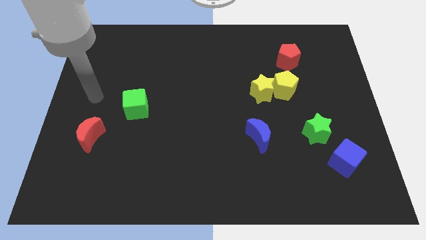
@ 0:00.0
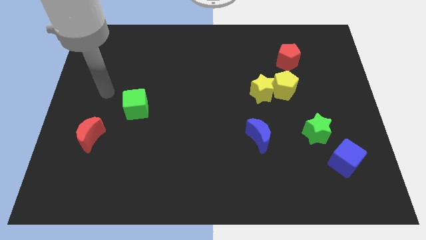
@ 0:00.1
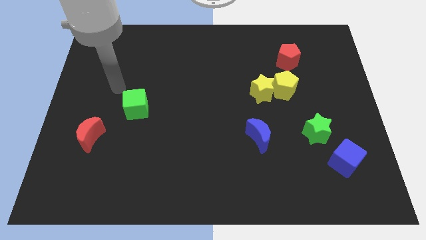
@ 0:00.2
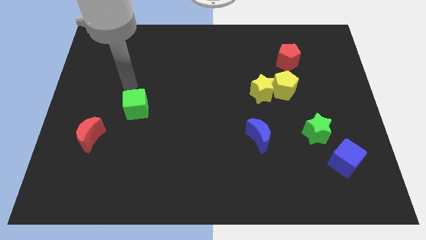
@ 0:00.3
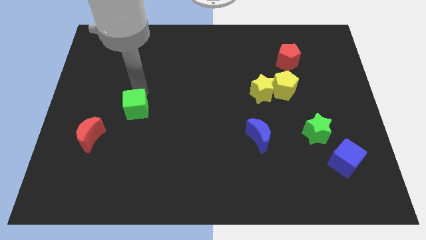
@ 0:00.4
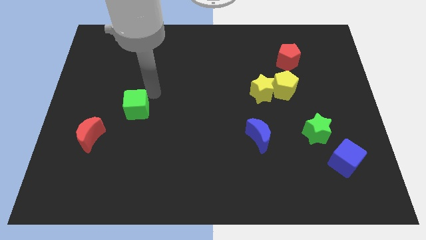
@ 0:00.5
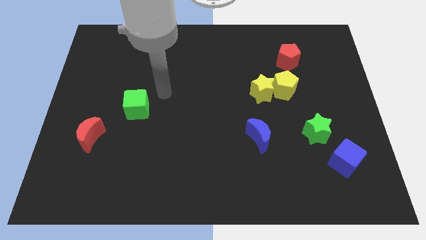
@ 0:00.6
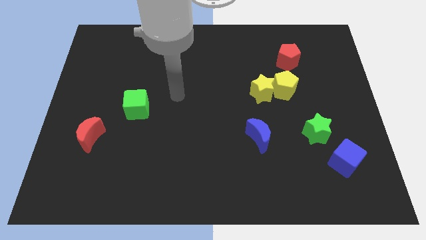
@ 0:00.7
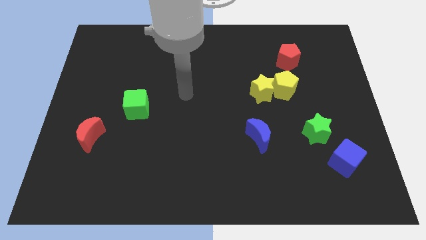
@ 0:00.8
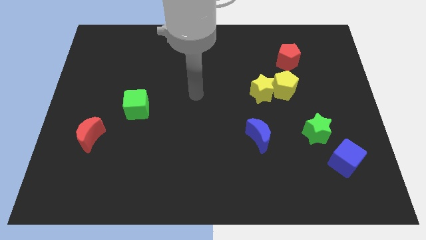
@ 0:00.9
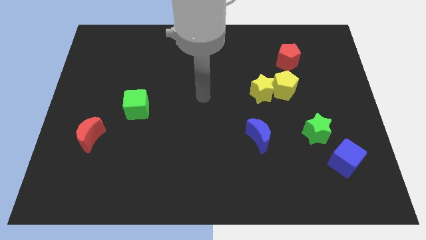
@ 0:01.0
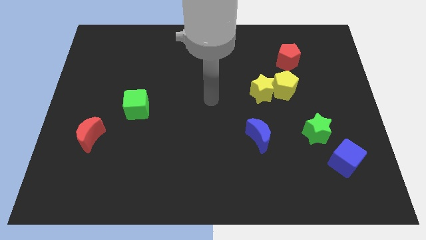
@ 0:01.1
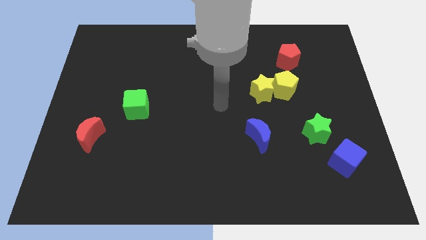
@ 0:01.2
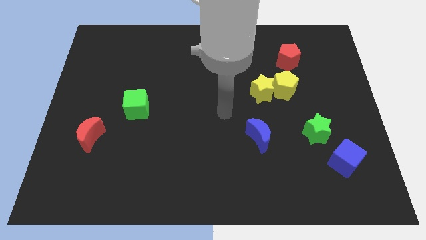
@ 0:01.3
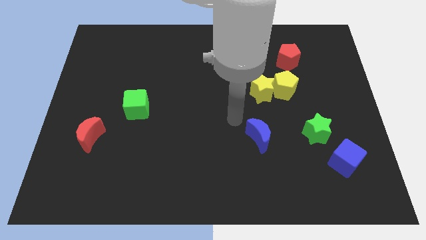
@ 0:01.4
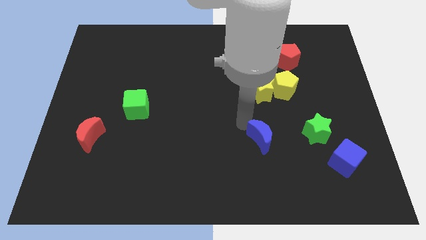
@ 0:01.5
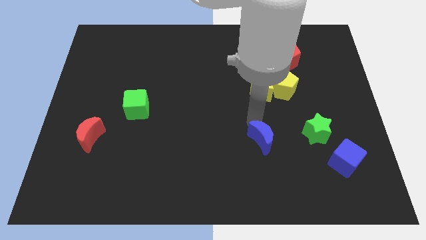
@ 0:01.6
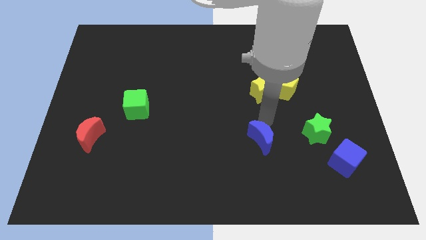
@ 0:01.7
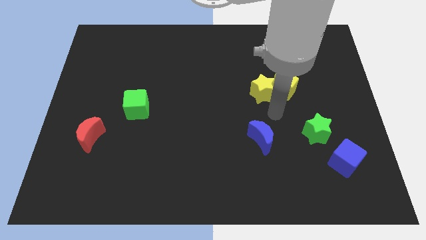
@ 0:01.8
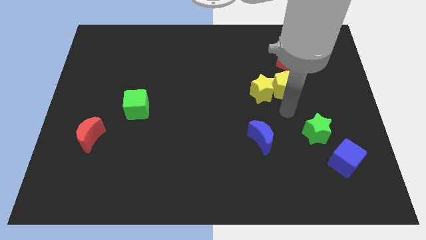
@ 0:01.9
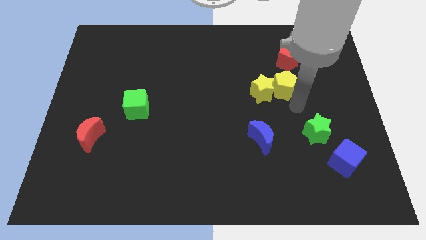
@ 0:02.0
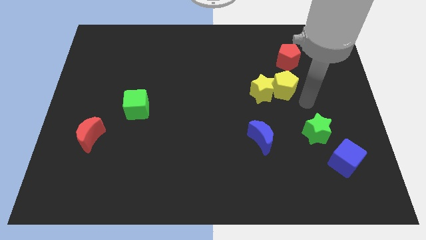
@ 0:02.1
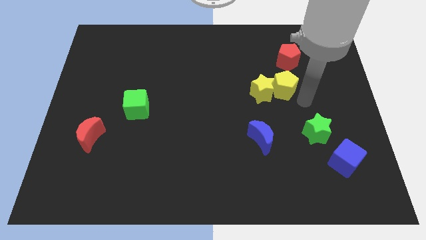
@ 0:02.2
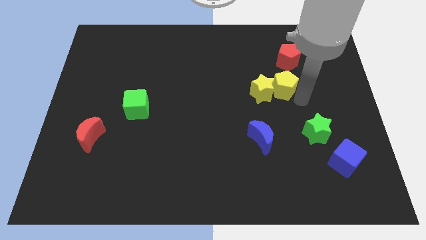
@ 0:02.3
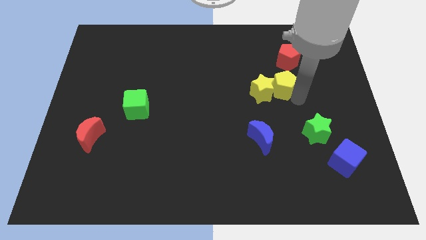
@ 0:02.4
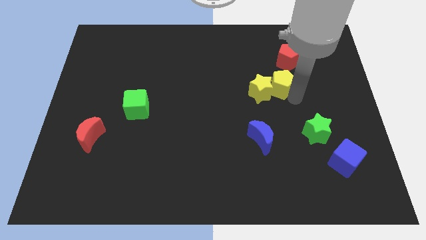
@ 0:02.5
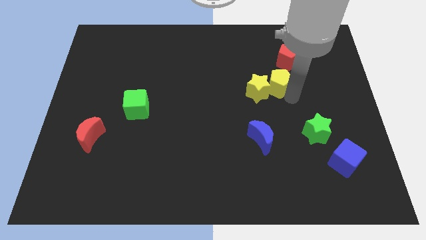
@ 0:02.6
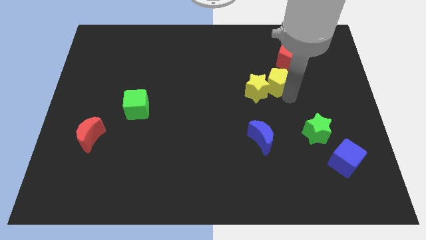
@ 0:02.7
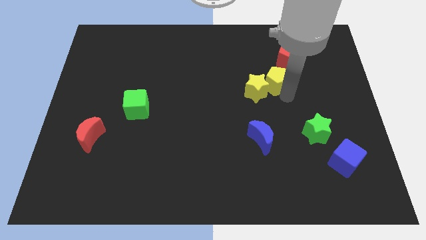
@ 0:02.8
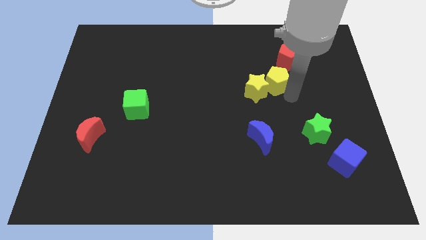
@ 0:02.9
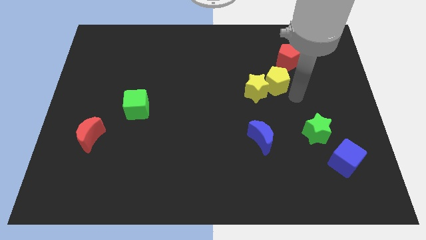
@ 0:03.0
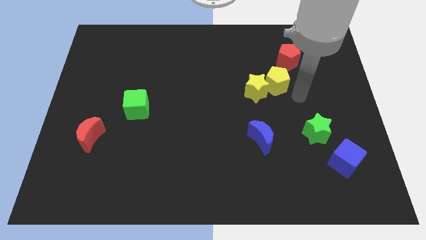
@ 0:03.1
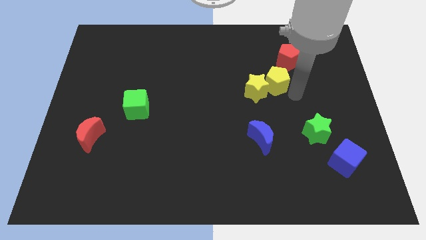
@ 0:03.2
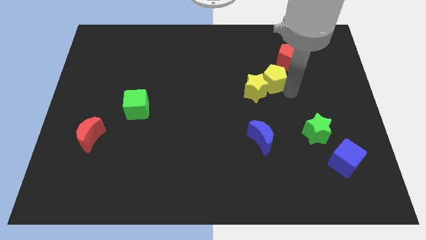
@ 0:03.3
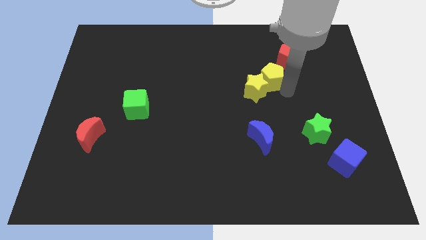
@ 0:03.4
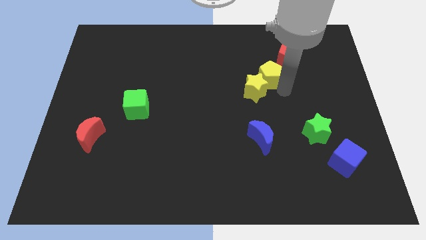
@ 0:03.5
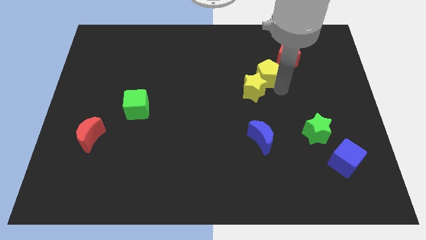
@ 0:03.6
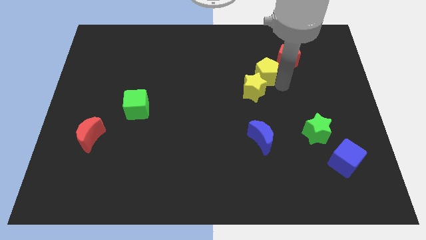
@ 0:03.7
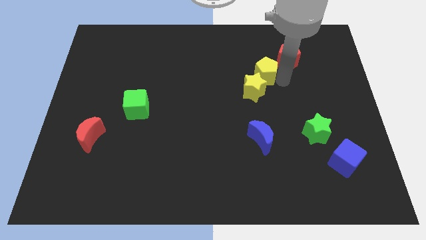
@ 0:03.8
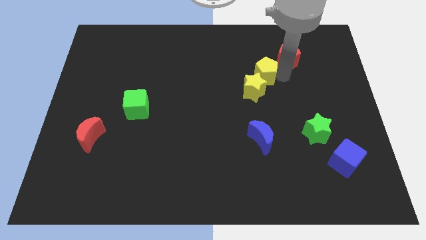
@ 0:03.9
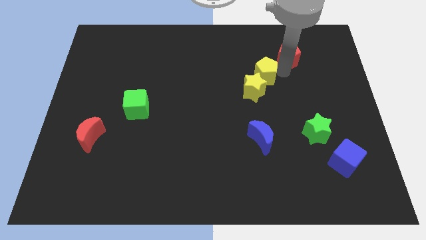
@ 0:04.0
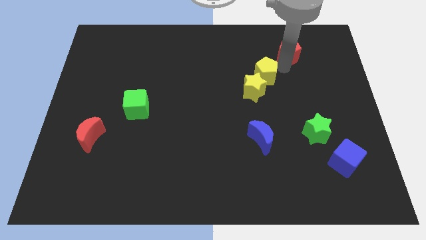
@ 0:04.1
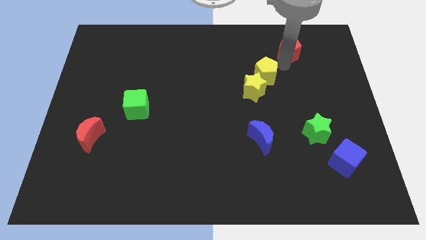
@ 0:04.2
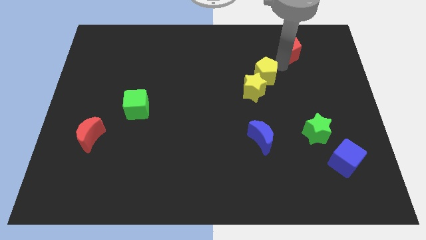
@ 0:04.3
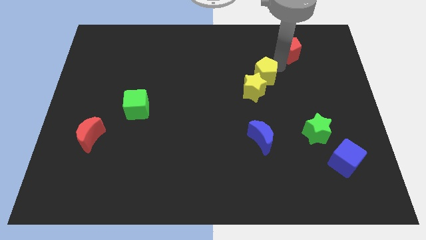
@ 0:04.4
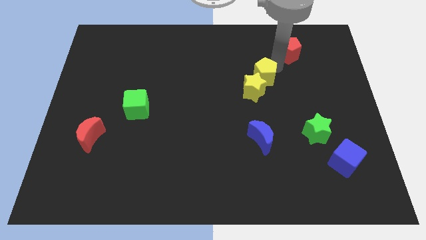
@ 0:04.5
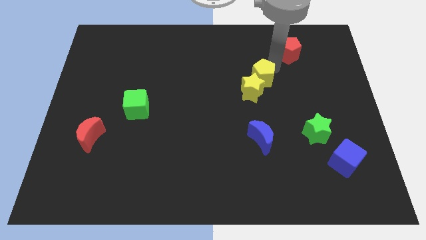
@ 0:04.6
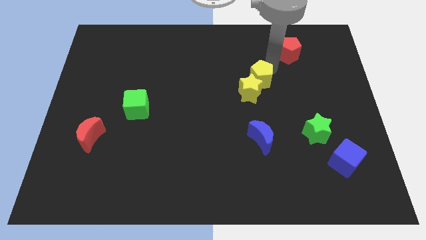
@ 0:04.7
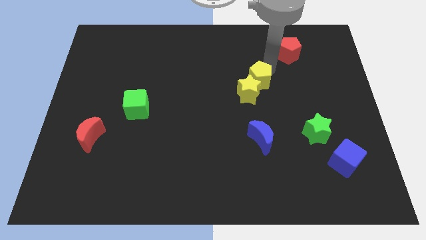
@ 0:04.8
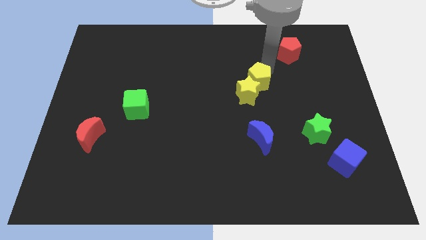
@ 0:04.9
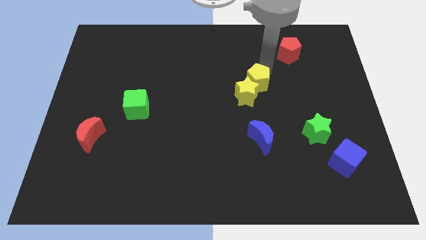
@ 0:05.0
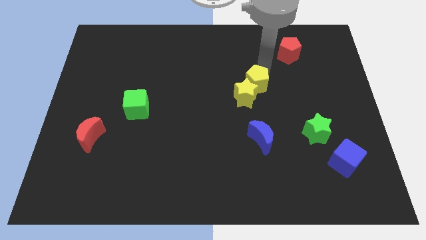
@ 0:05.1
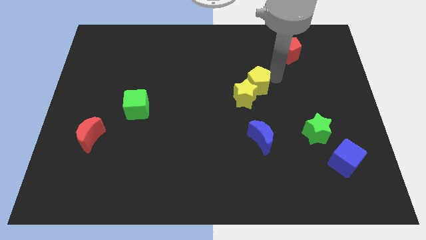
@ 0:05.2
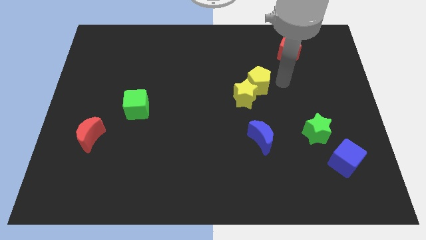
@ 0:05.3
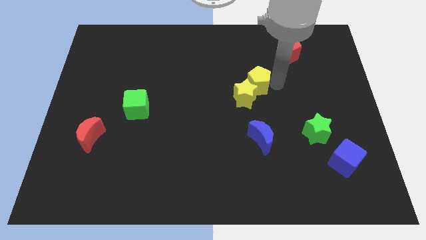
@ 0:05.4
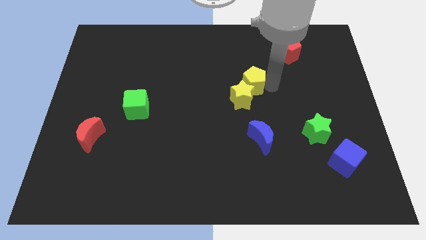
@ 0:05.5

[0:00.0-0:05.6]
push the yellow pentagon a little left

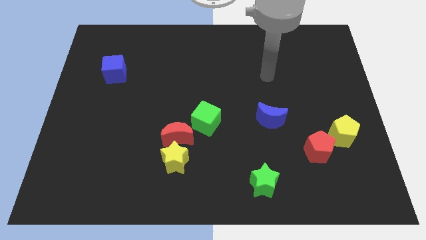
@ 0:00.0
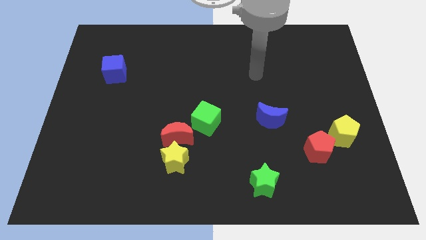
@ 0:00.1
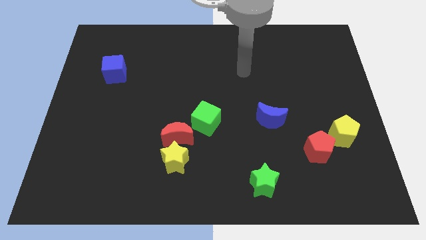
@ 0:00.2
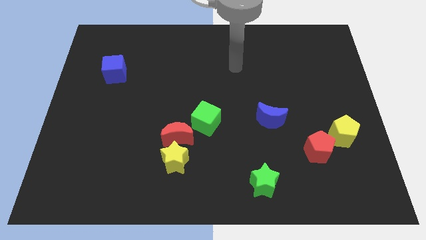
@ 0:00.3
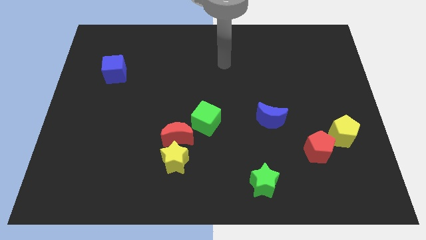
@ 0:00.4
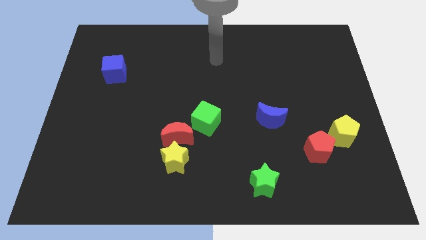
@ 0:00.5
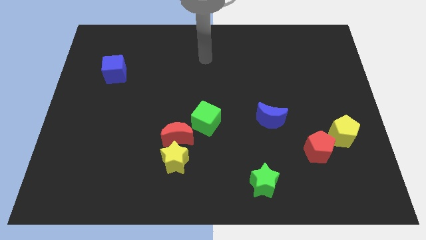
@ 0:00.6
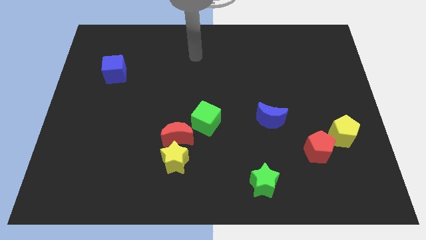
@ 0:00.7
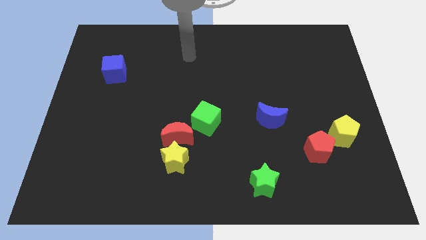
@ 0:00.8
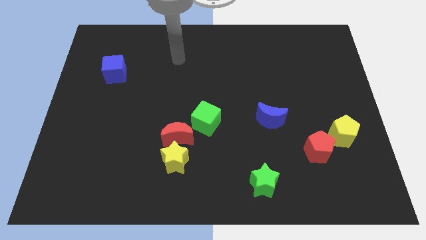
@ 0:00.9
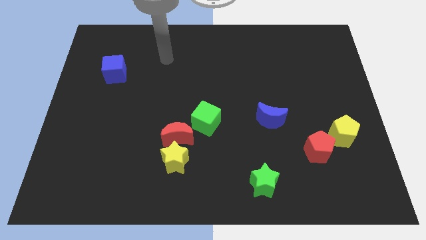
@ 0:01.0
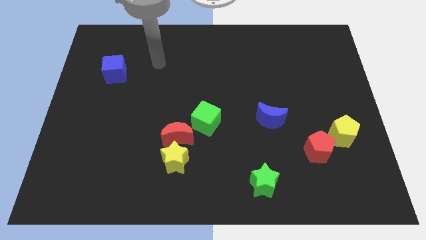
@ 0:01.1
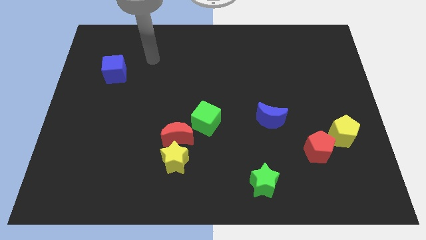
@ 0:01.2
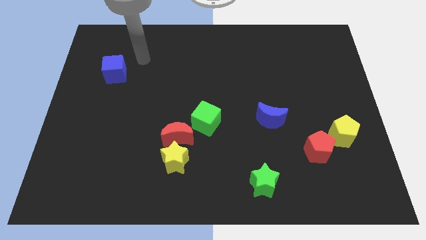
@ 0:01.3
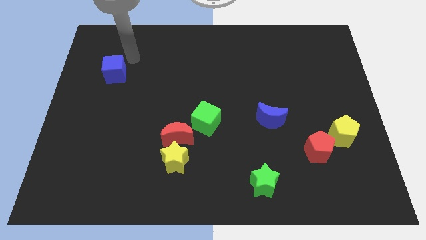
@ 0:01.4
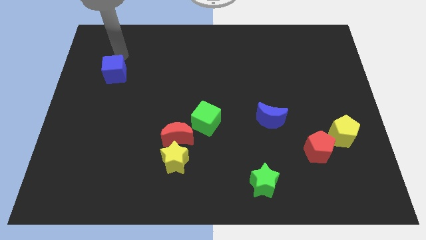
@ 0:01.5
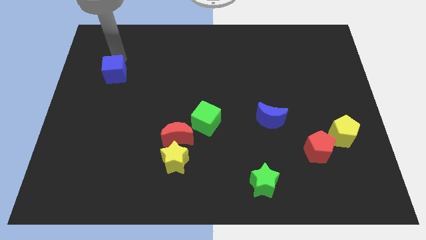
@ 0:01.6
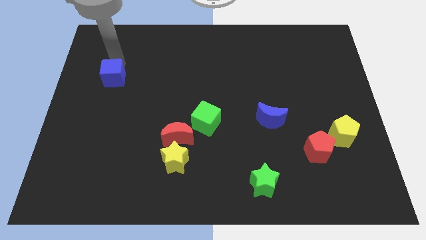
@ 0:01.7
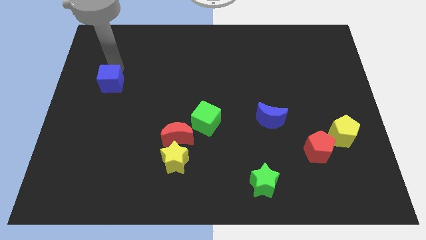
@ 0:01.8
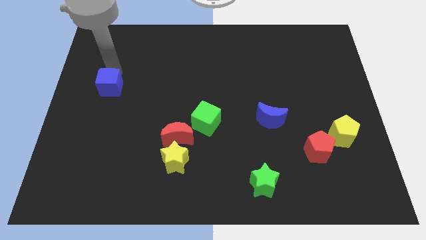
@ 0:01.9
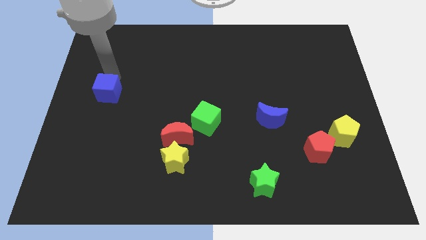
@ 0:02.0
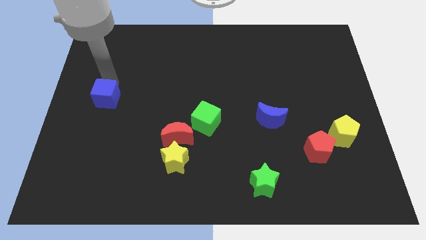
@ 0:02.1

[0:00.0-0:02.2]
slightly slide the blue cube down
